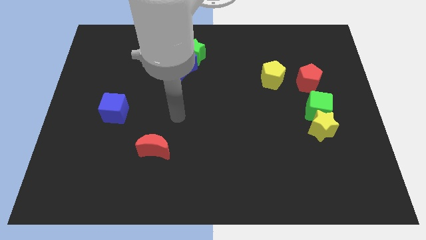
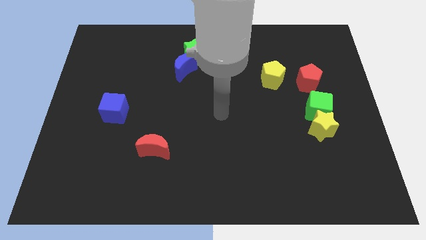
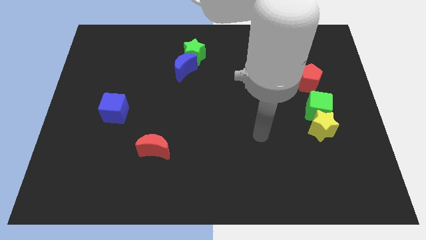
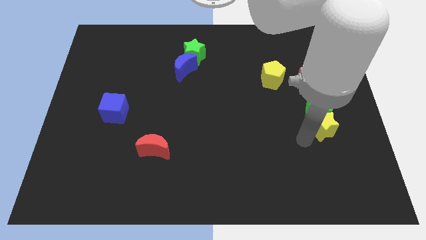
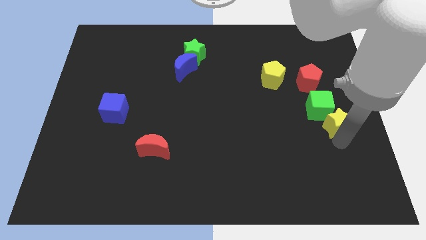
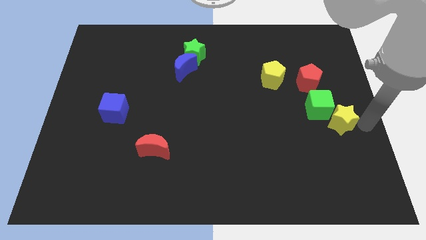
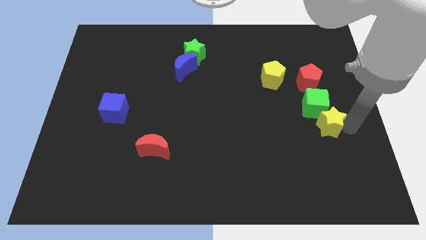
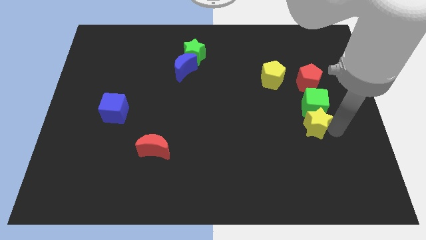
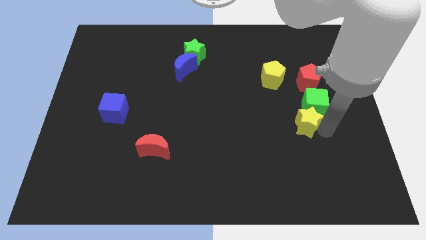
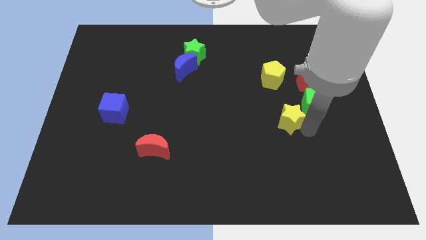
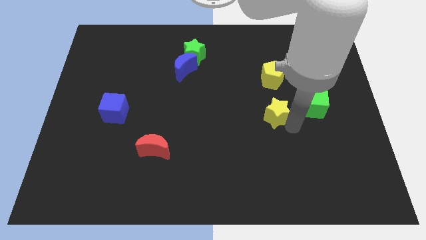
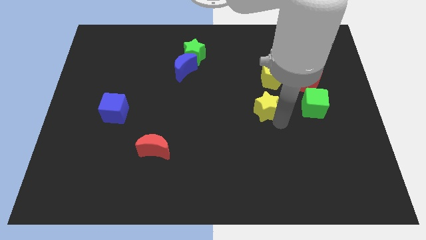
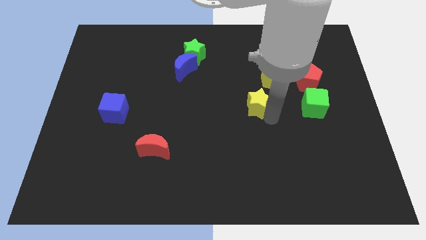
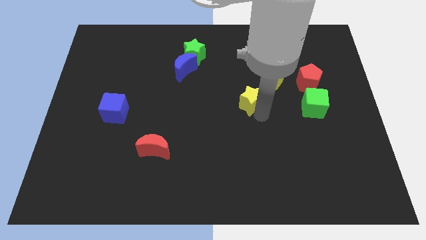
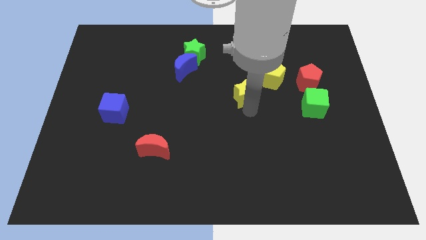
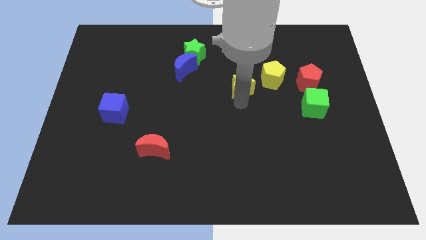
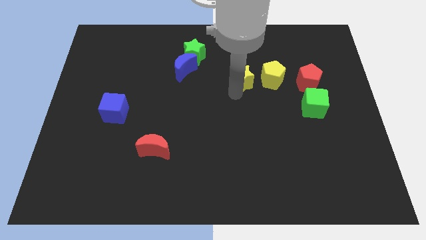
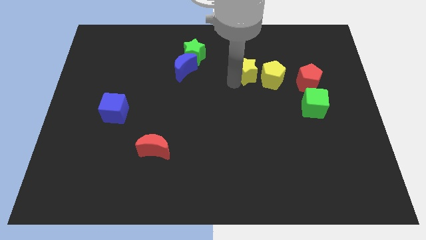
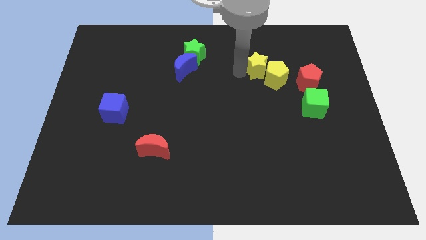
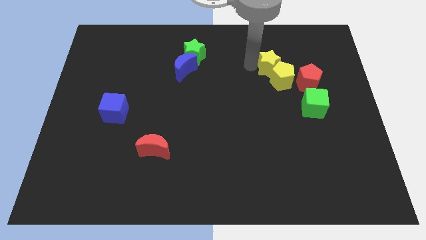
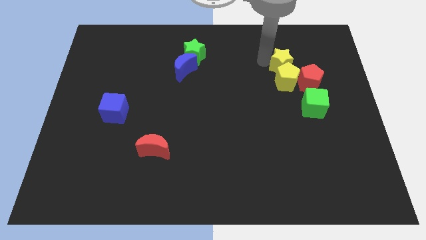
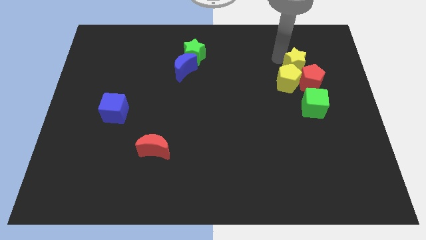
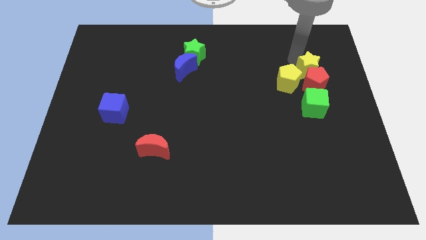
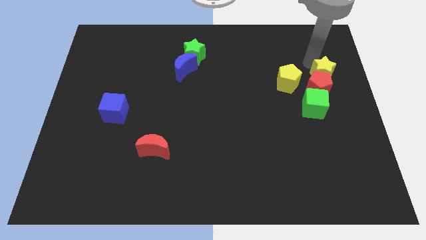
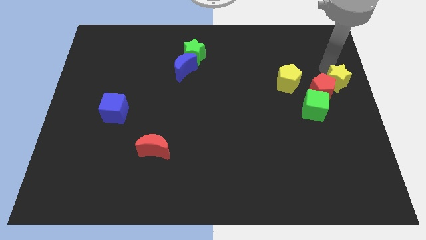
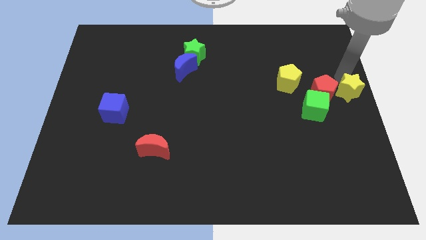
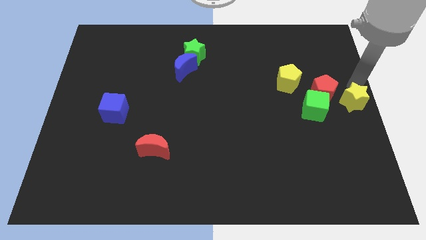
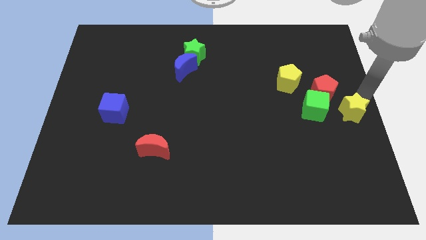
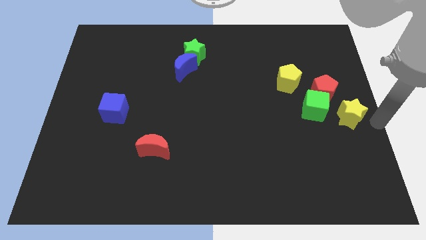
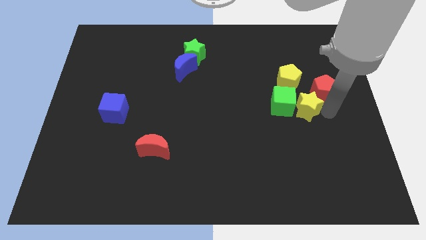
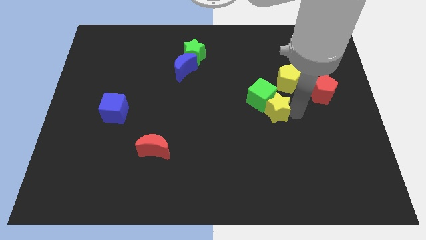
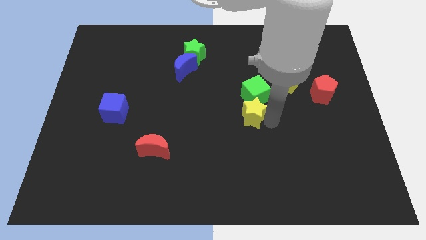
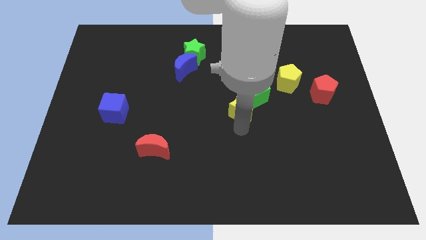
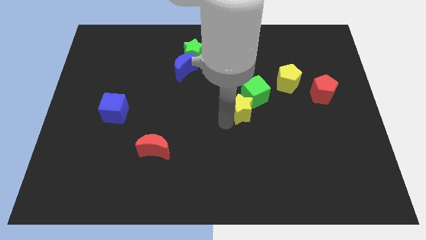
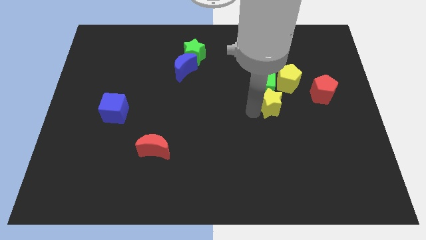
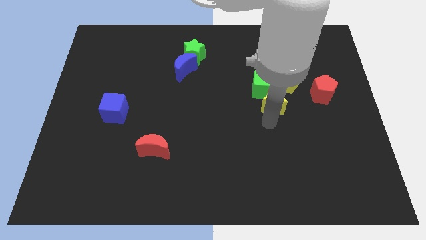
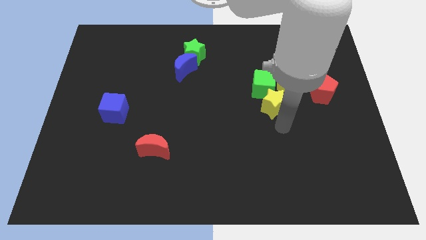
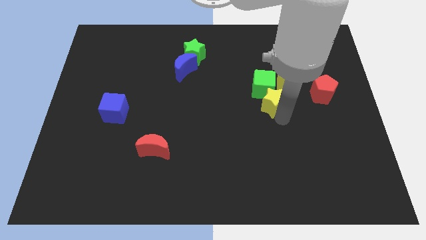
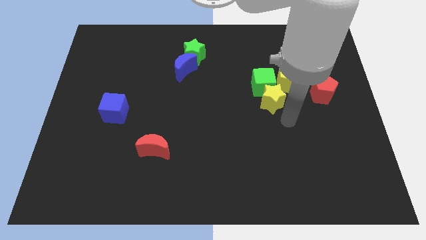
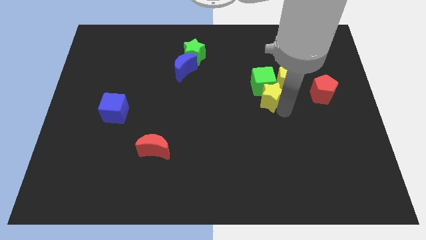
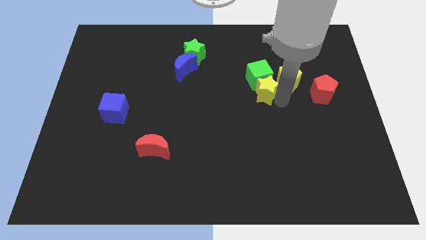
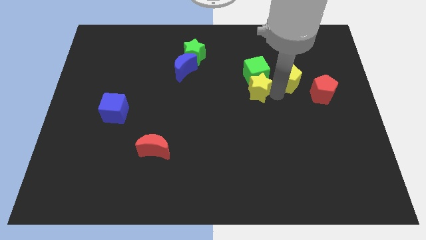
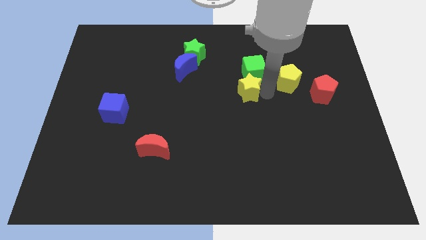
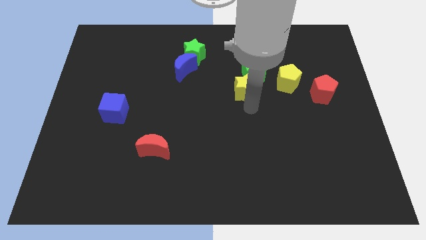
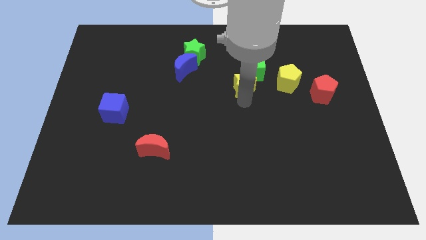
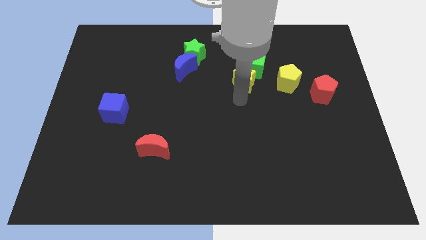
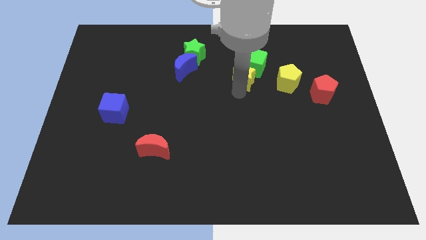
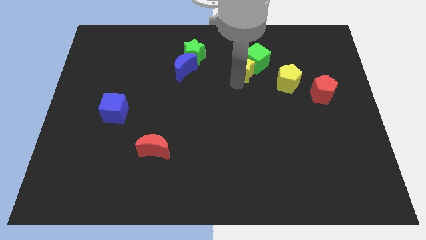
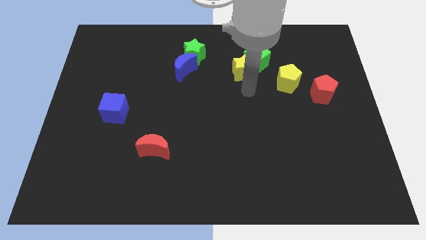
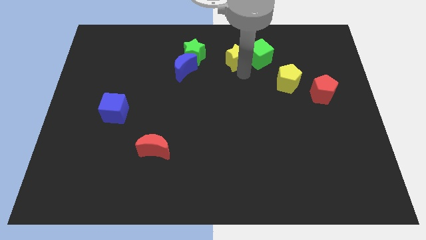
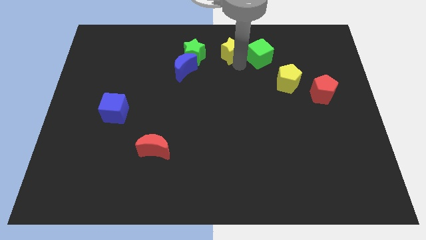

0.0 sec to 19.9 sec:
put the yellow star to the top side

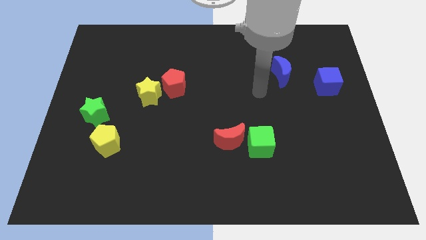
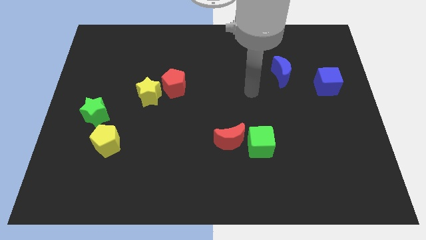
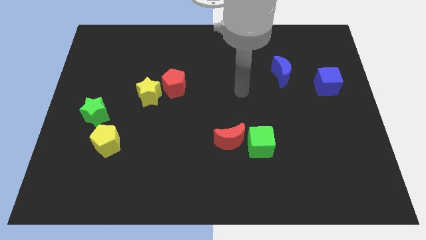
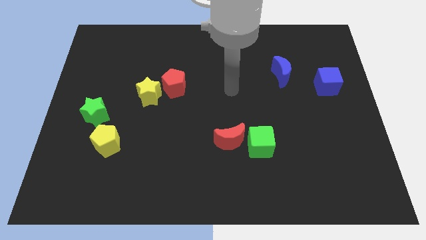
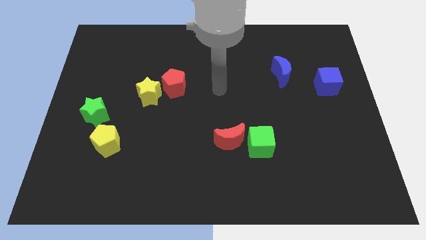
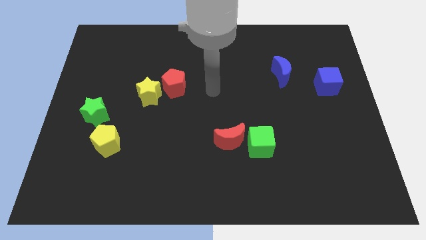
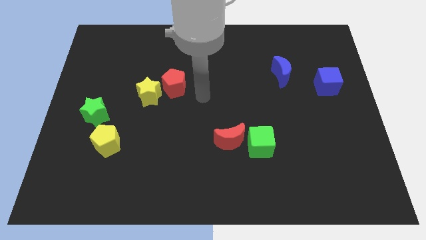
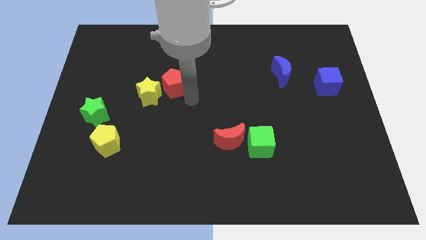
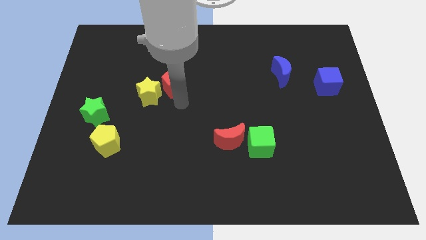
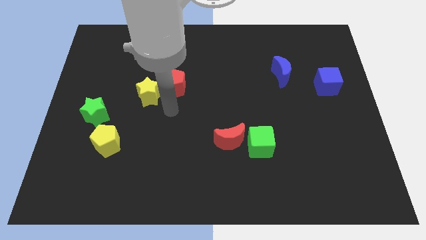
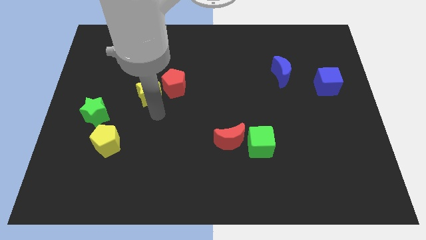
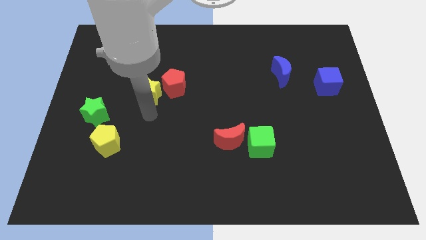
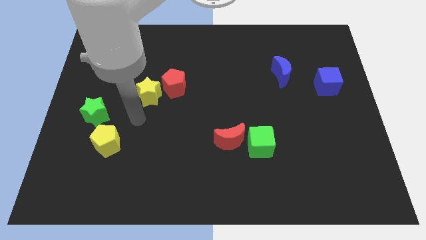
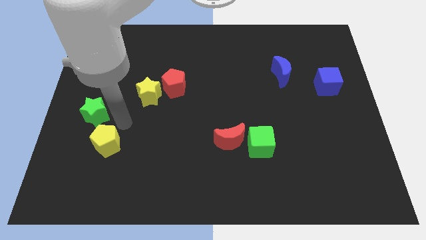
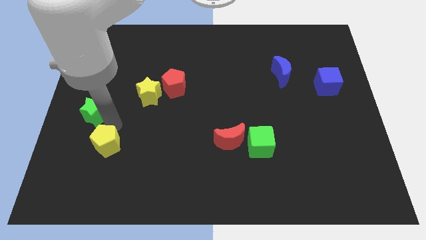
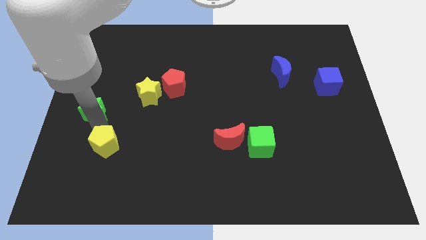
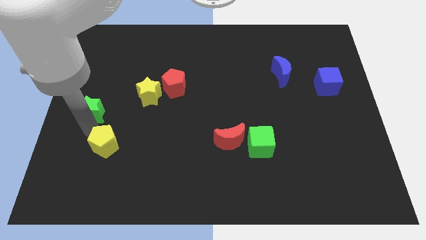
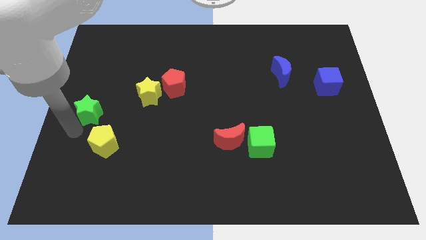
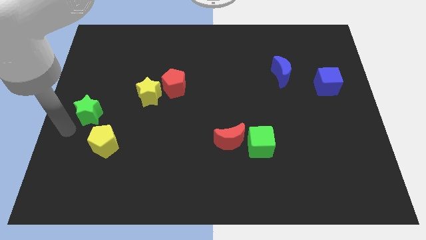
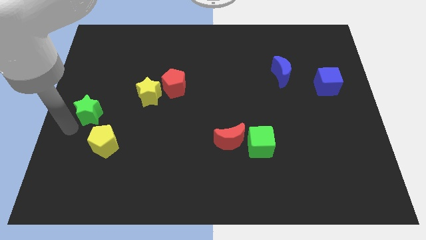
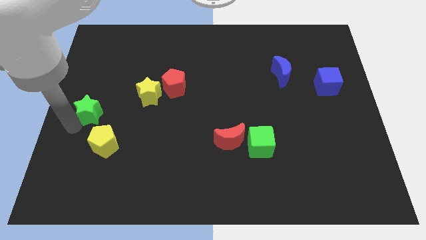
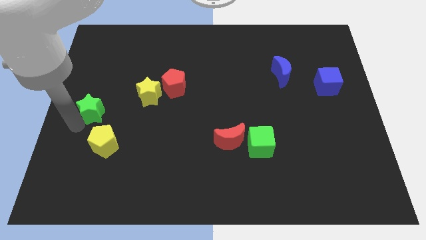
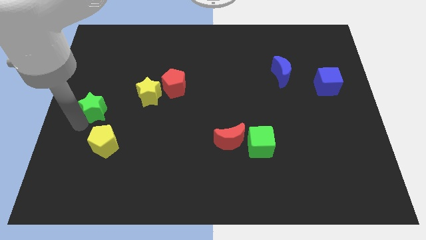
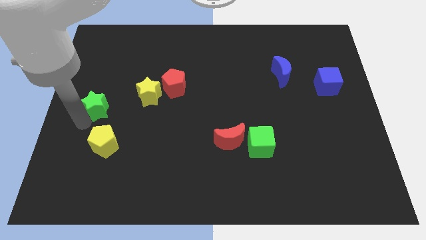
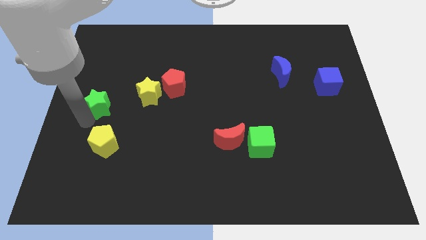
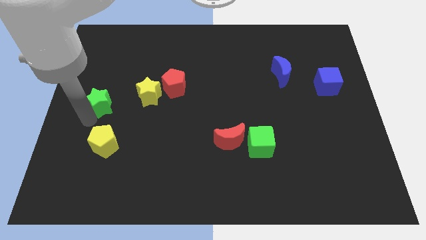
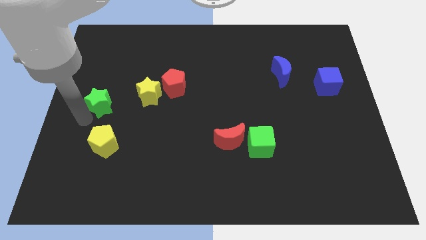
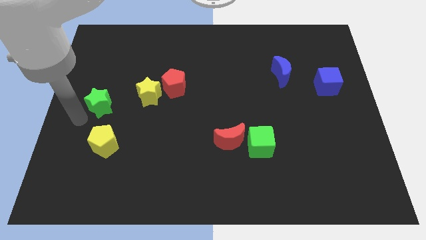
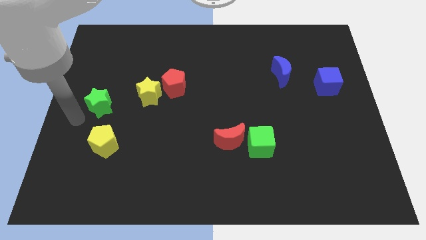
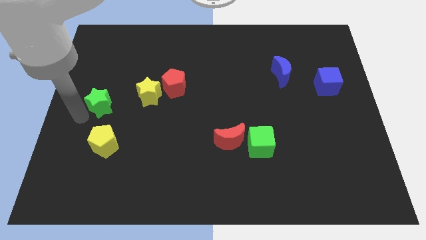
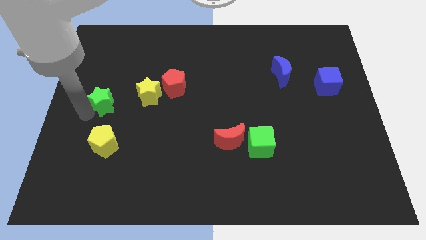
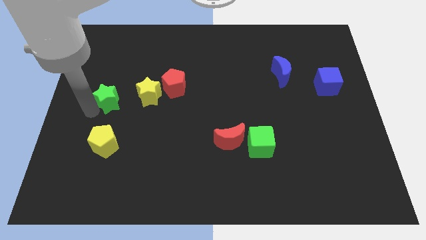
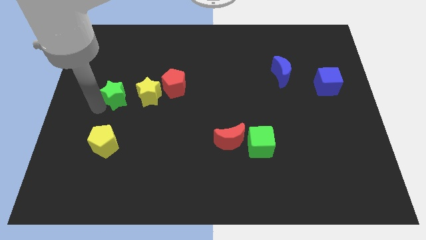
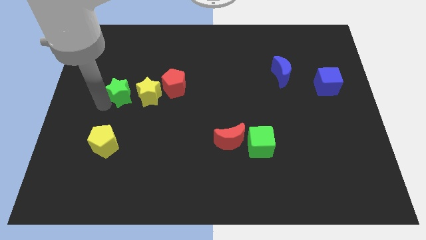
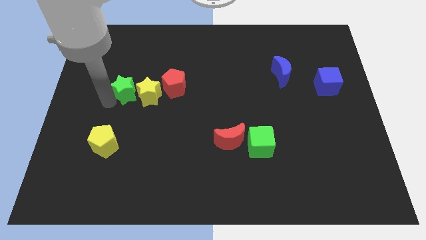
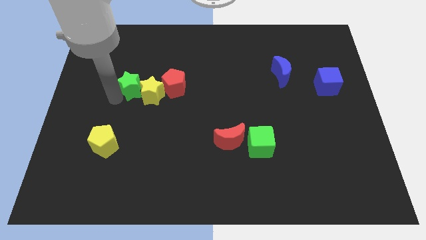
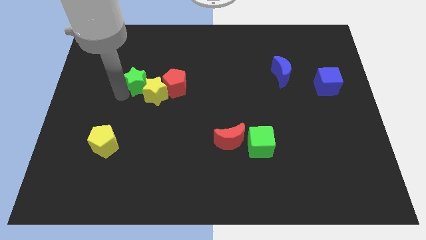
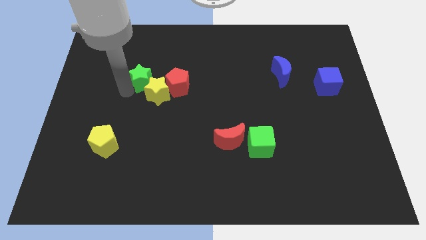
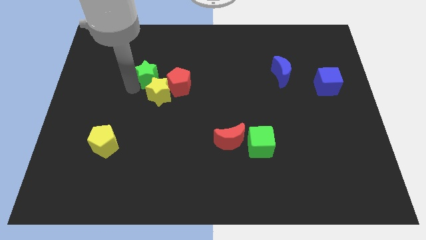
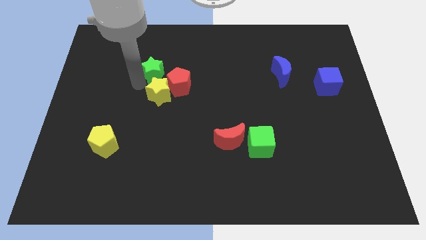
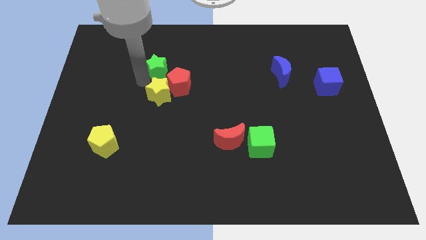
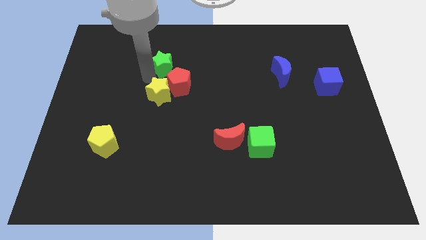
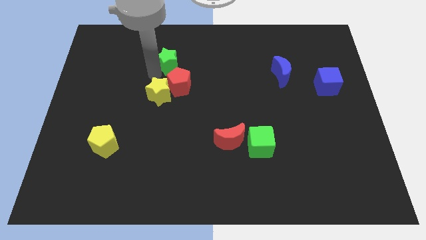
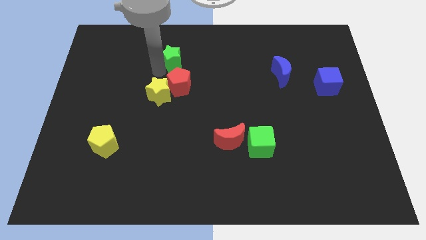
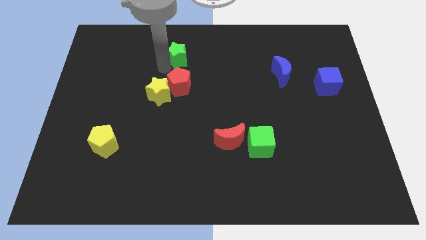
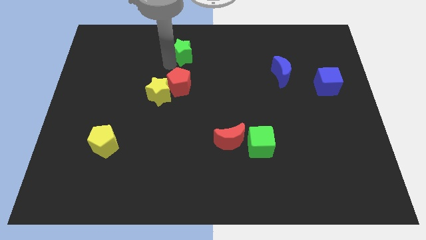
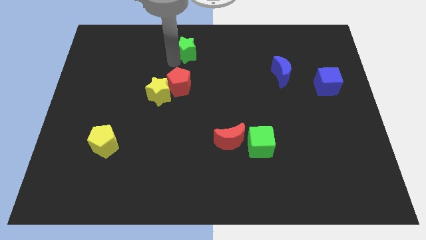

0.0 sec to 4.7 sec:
move the green star to the top
